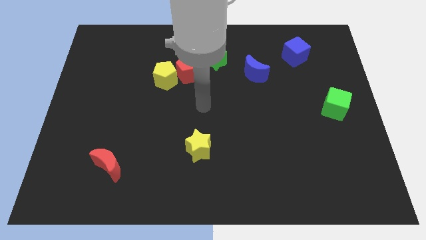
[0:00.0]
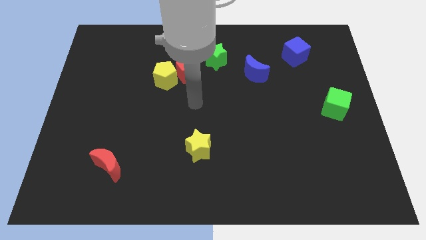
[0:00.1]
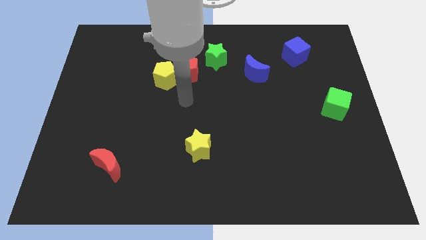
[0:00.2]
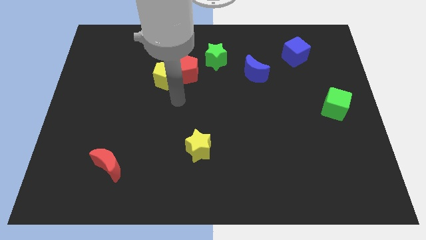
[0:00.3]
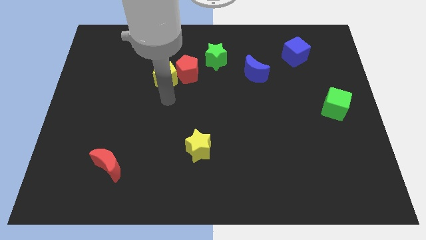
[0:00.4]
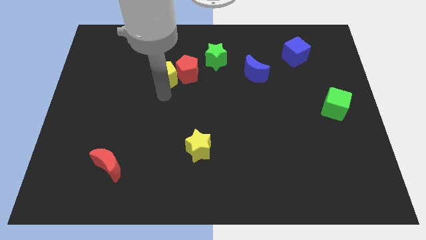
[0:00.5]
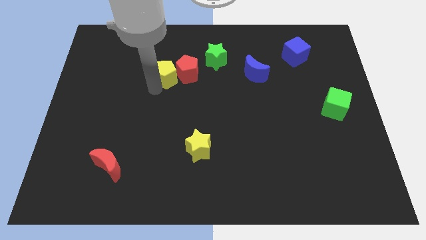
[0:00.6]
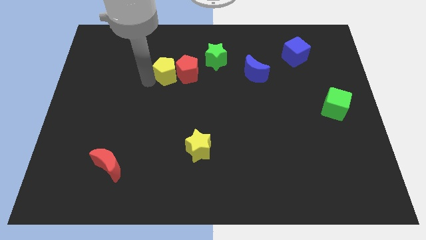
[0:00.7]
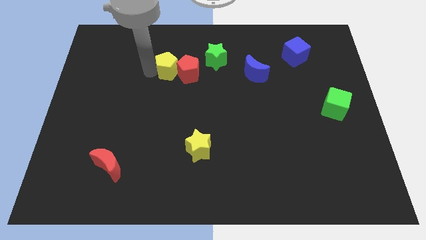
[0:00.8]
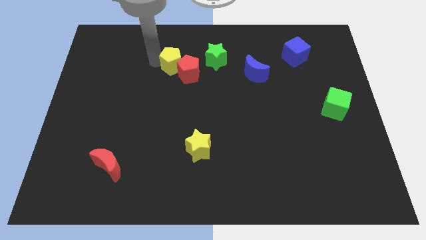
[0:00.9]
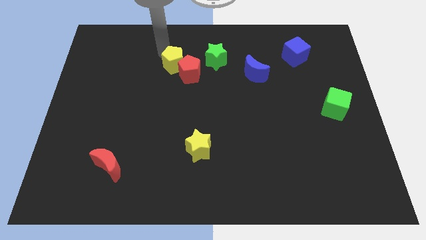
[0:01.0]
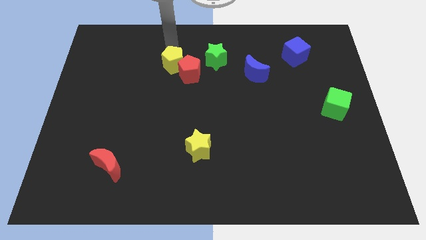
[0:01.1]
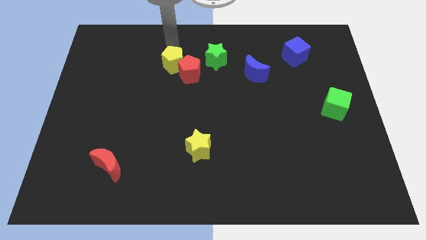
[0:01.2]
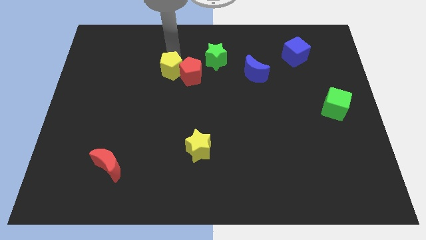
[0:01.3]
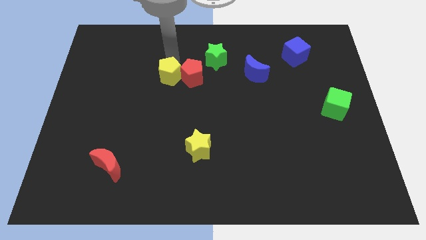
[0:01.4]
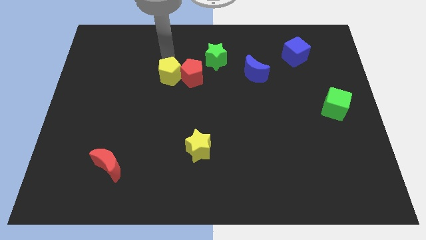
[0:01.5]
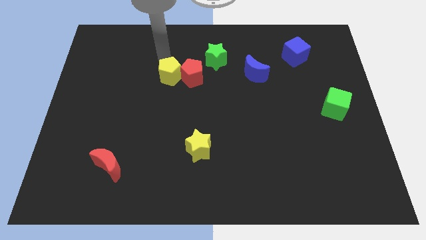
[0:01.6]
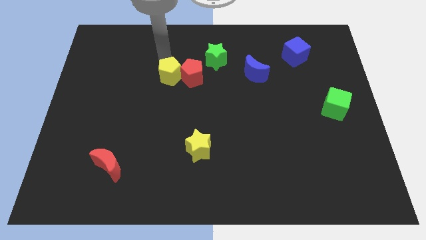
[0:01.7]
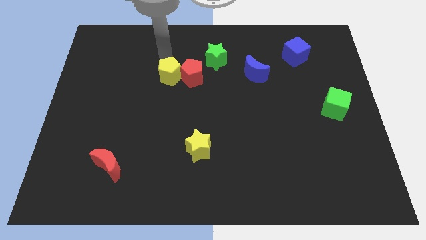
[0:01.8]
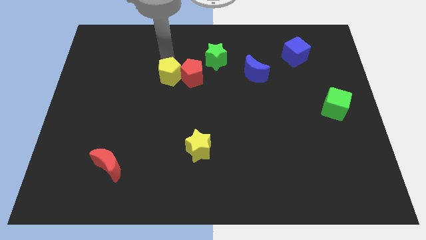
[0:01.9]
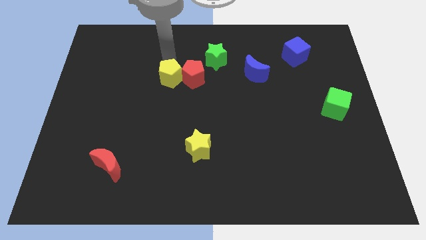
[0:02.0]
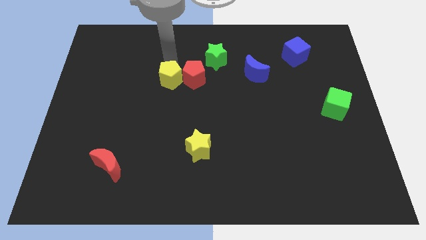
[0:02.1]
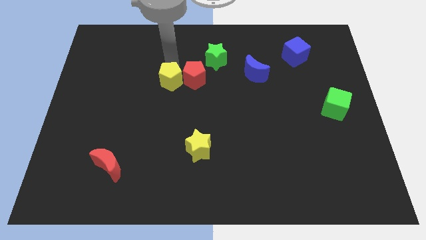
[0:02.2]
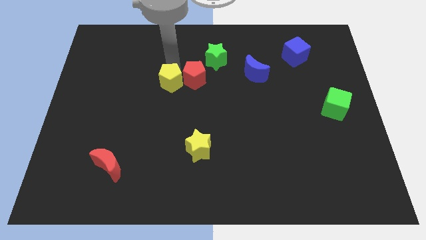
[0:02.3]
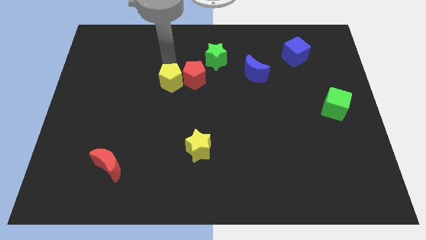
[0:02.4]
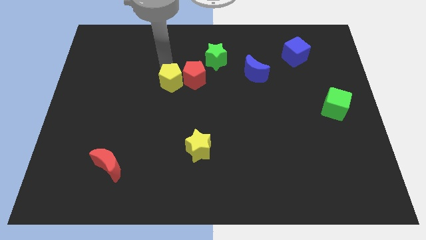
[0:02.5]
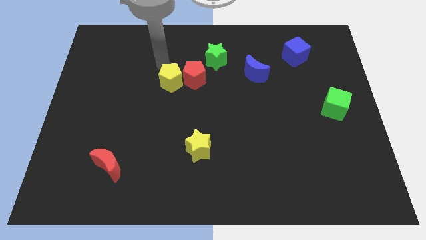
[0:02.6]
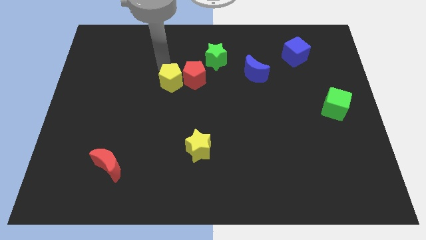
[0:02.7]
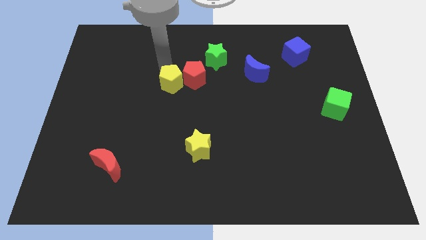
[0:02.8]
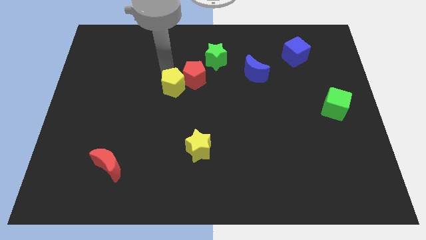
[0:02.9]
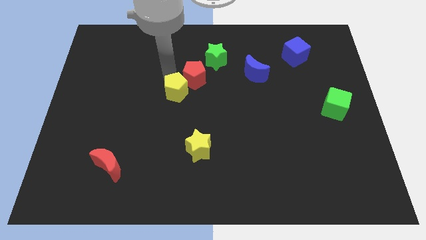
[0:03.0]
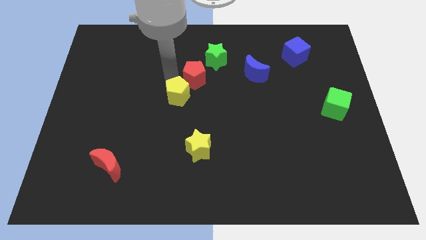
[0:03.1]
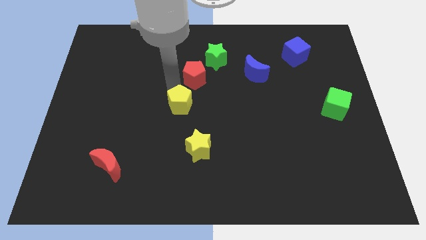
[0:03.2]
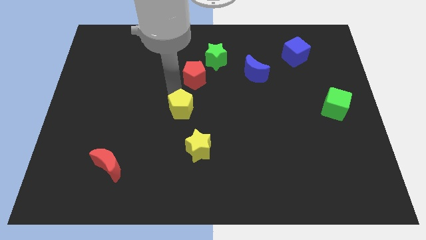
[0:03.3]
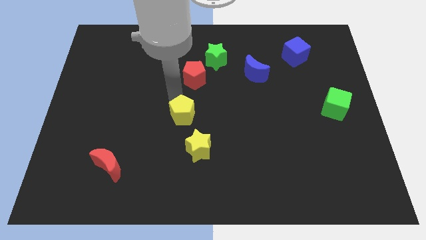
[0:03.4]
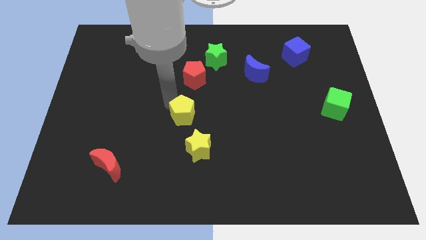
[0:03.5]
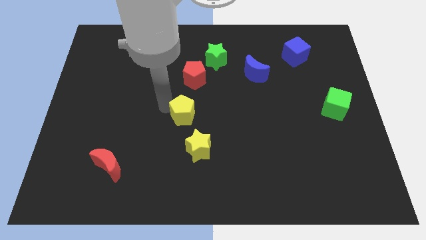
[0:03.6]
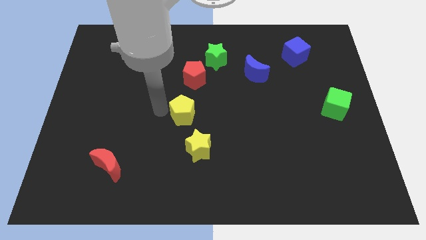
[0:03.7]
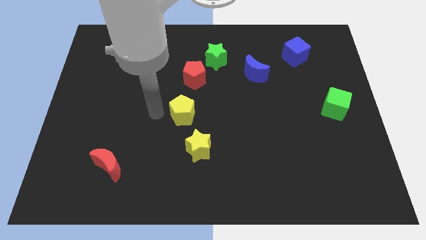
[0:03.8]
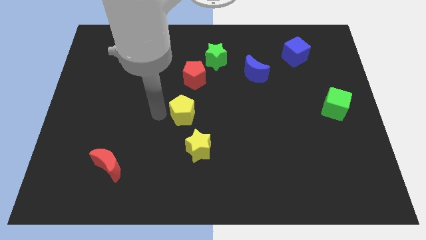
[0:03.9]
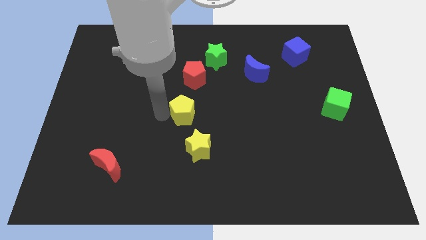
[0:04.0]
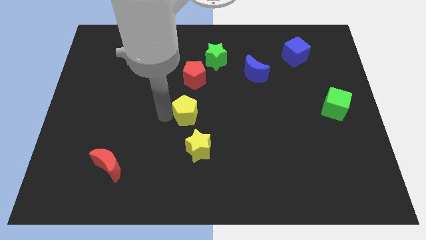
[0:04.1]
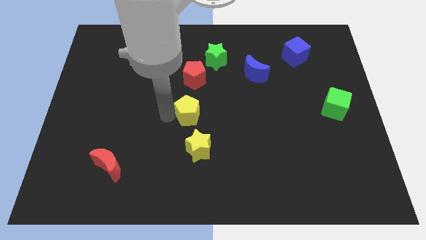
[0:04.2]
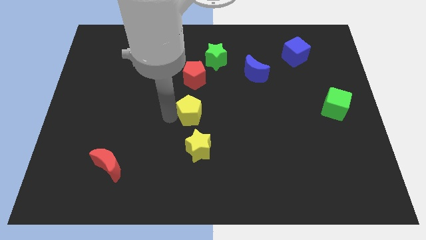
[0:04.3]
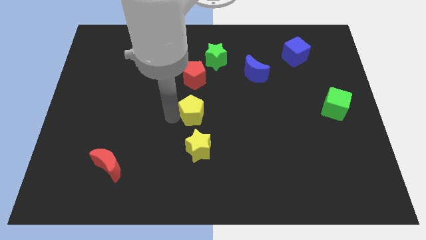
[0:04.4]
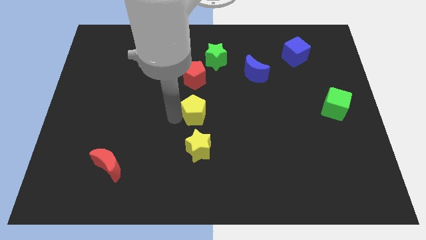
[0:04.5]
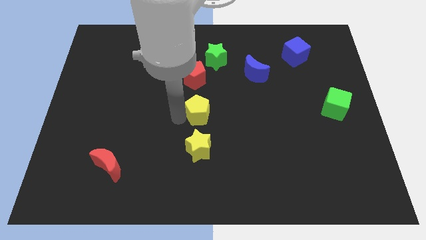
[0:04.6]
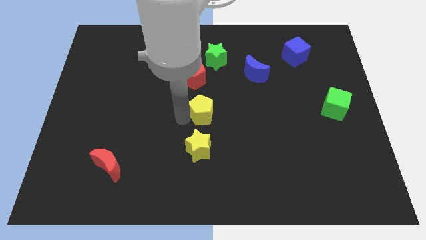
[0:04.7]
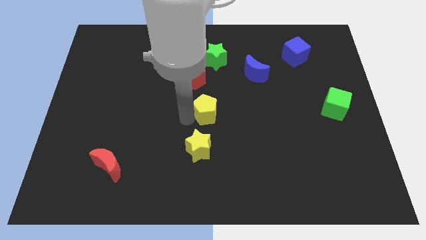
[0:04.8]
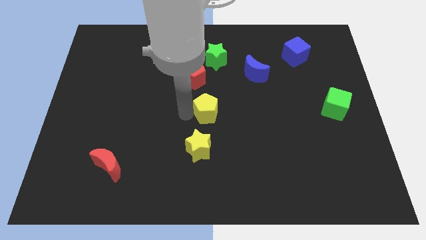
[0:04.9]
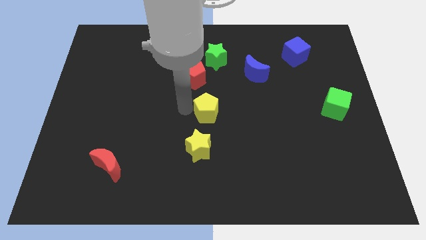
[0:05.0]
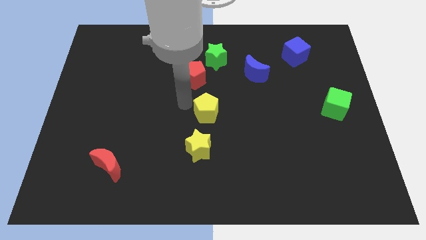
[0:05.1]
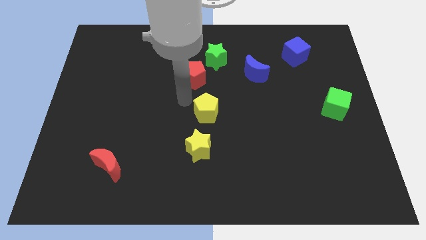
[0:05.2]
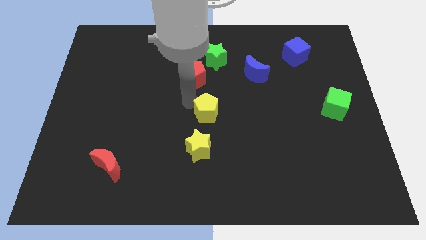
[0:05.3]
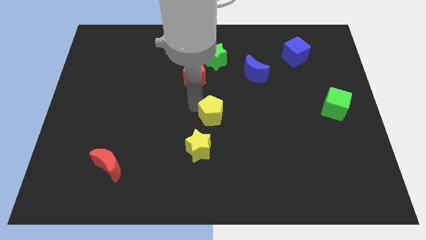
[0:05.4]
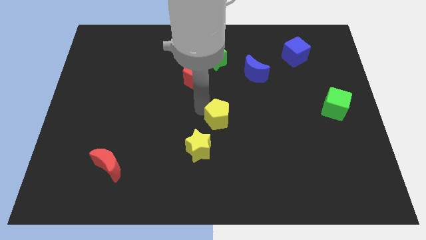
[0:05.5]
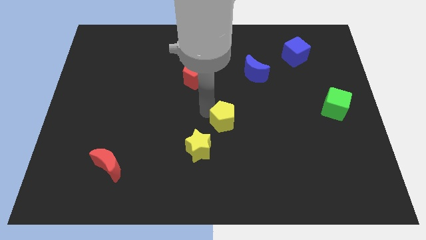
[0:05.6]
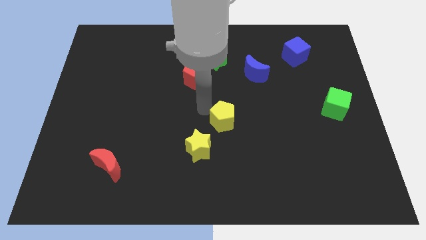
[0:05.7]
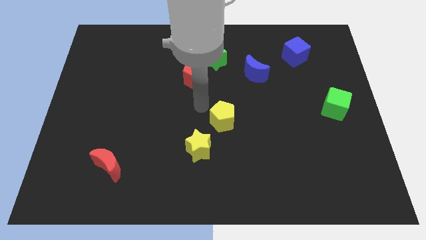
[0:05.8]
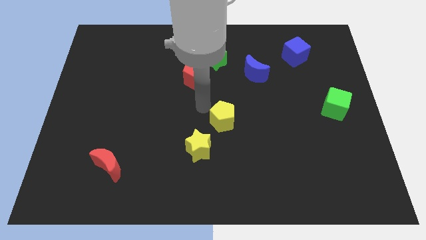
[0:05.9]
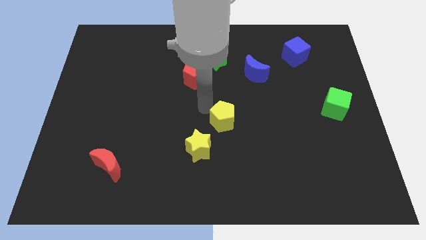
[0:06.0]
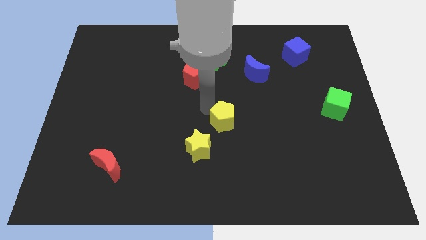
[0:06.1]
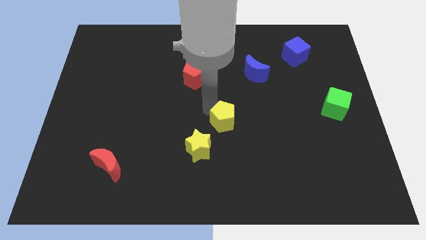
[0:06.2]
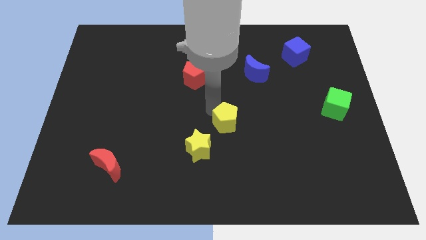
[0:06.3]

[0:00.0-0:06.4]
move the yellow pentagon downwards and right diagonally

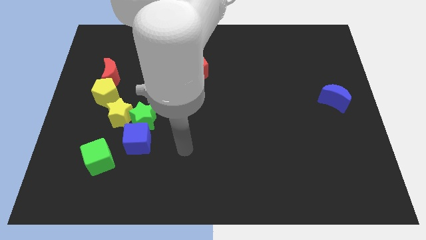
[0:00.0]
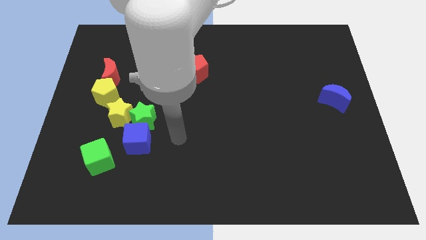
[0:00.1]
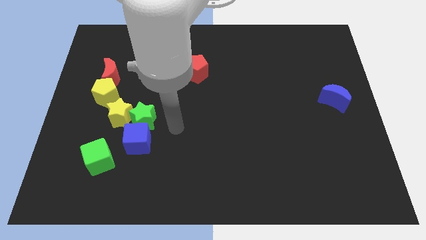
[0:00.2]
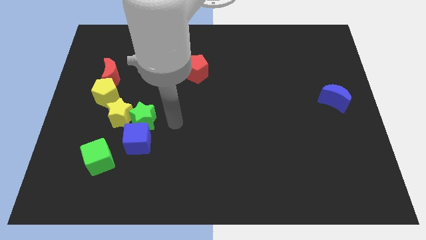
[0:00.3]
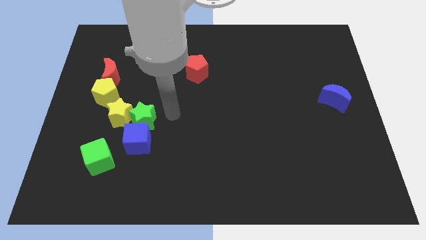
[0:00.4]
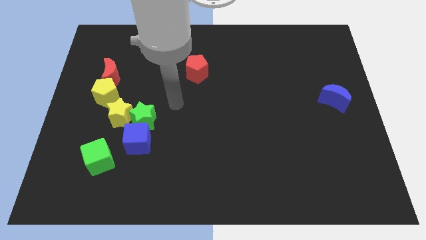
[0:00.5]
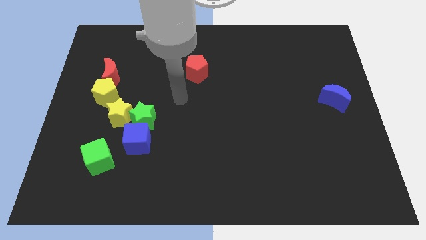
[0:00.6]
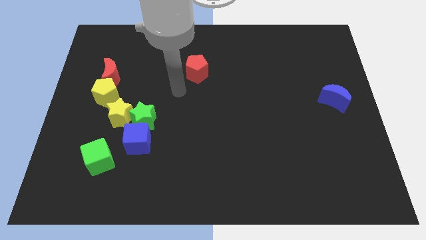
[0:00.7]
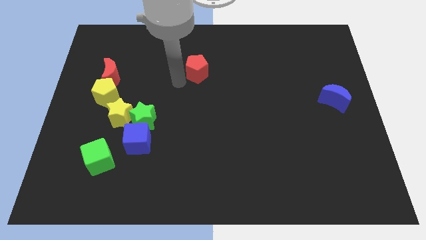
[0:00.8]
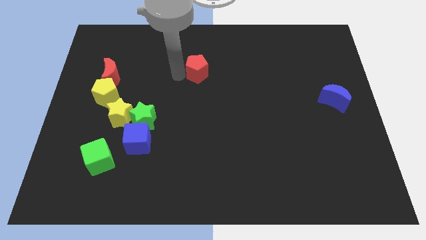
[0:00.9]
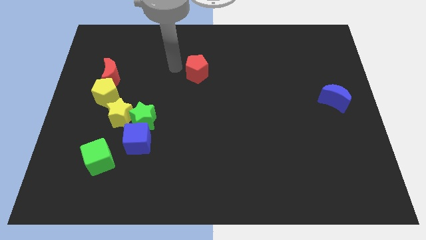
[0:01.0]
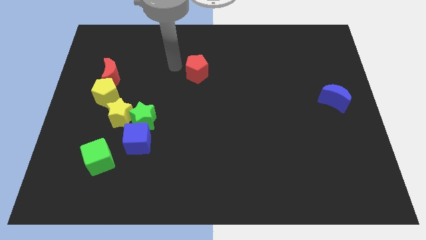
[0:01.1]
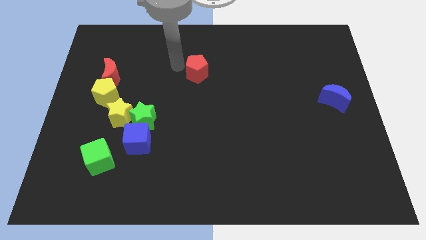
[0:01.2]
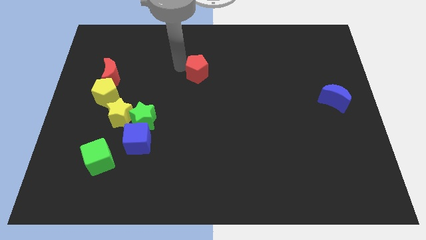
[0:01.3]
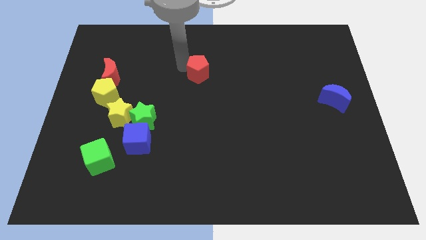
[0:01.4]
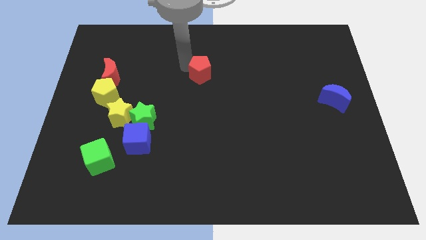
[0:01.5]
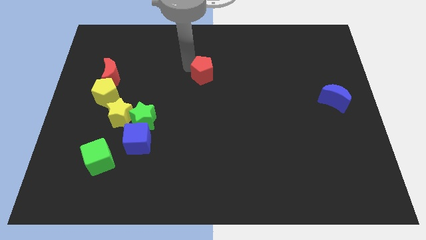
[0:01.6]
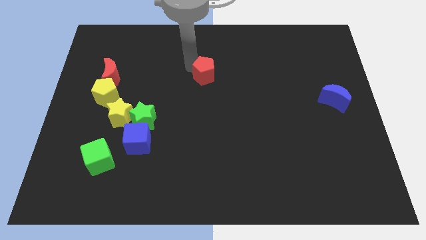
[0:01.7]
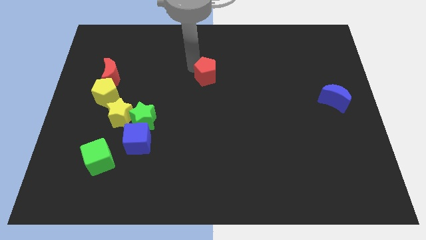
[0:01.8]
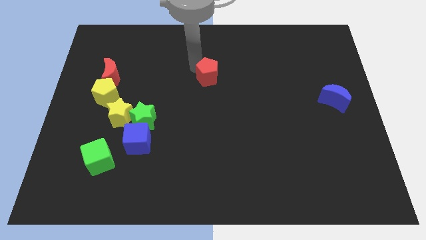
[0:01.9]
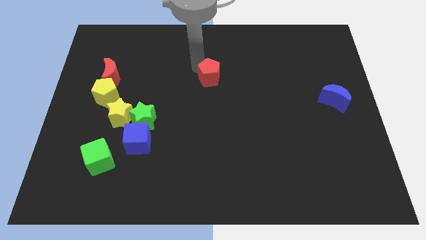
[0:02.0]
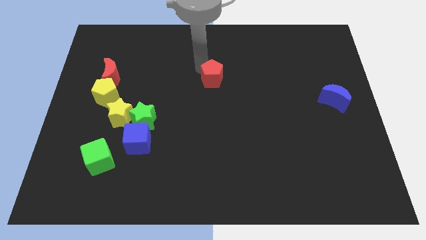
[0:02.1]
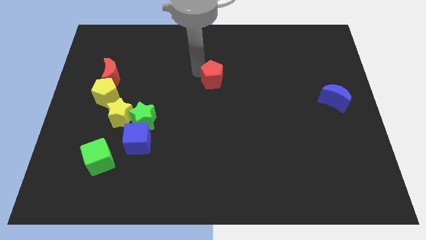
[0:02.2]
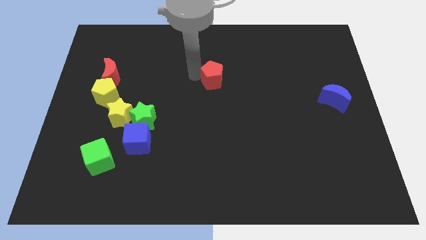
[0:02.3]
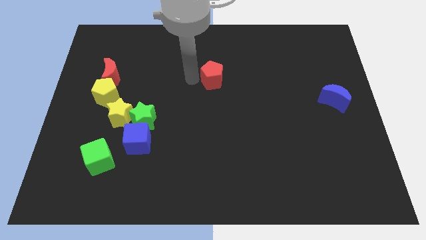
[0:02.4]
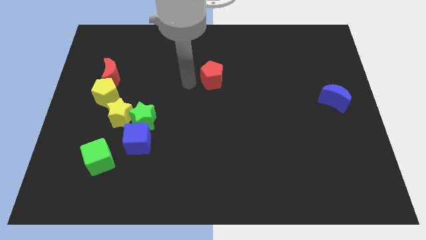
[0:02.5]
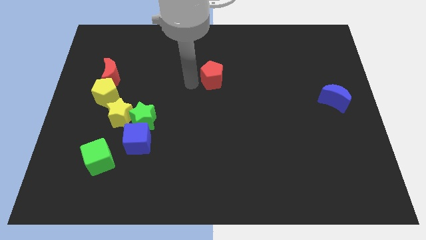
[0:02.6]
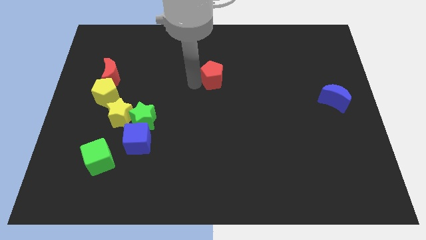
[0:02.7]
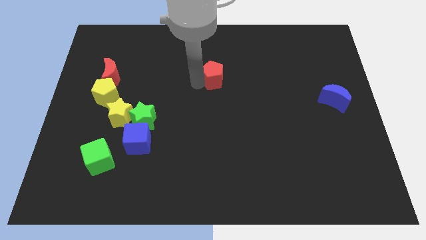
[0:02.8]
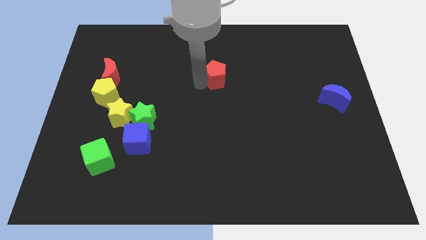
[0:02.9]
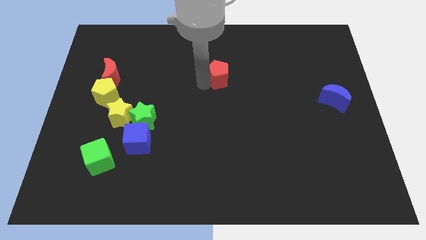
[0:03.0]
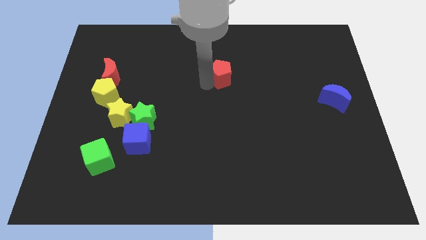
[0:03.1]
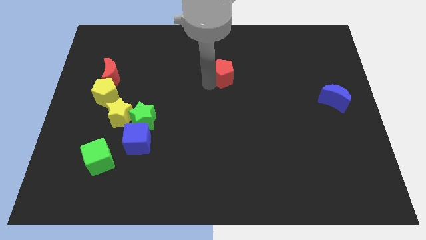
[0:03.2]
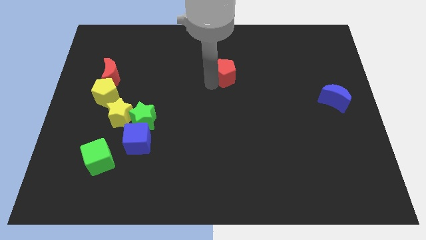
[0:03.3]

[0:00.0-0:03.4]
slightly move the red pentagon to the right
